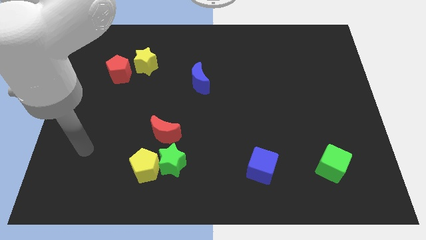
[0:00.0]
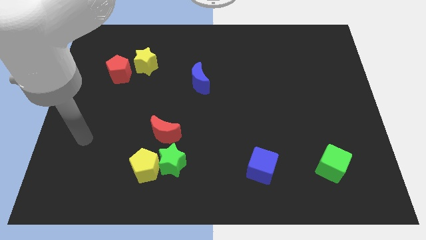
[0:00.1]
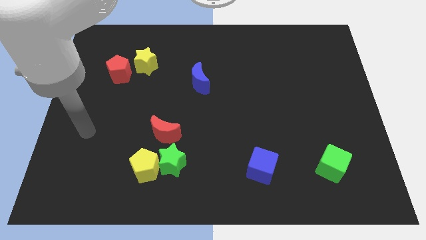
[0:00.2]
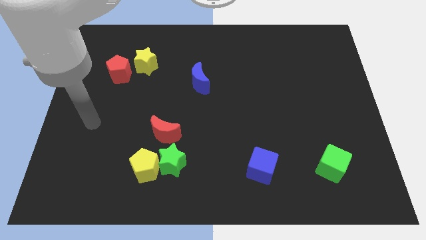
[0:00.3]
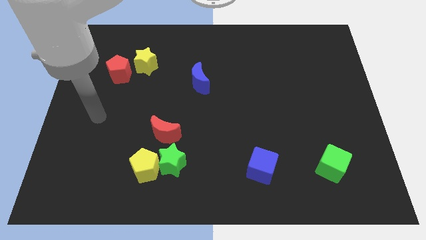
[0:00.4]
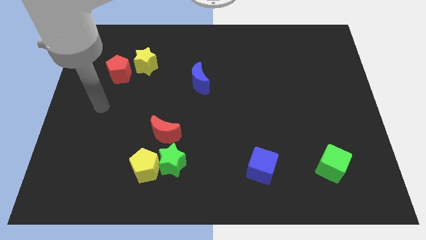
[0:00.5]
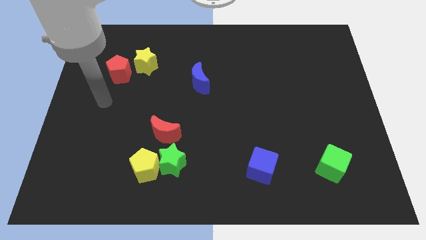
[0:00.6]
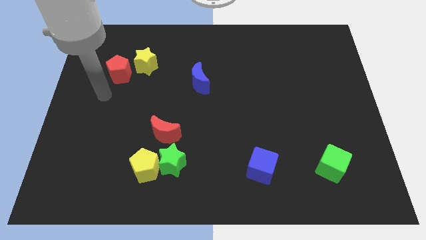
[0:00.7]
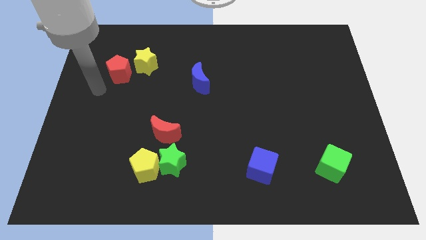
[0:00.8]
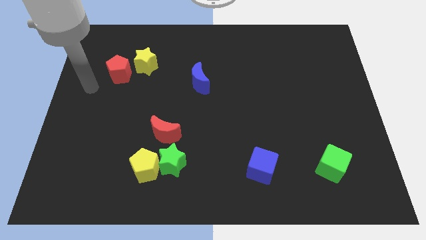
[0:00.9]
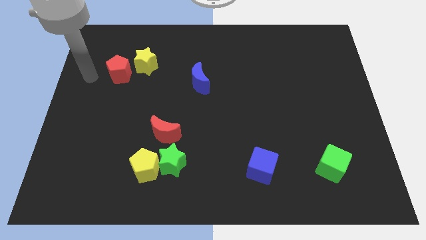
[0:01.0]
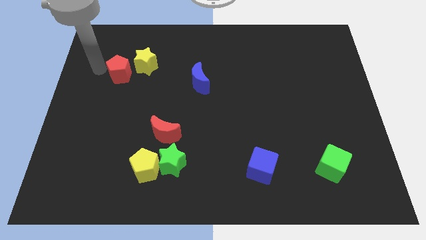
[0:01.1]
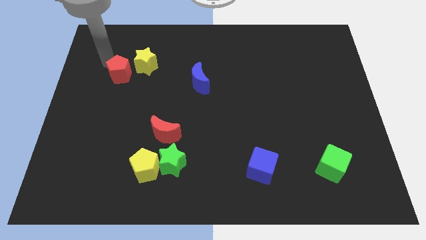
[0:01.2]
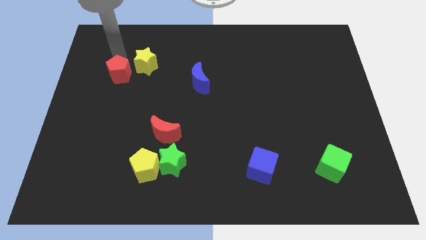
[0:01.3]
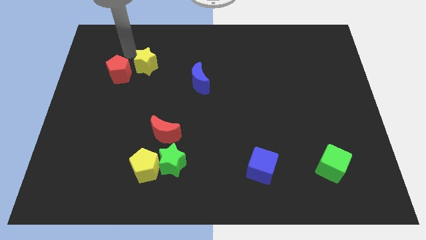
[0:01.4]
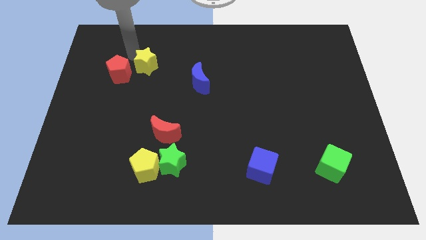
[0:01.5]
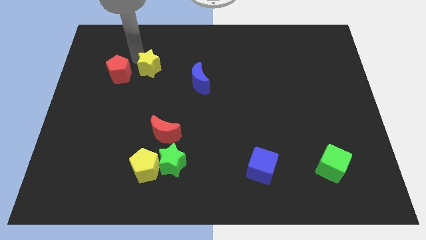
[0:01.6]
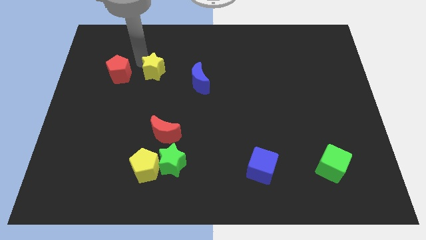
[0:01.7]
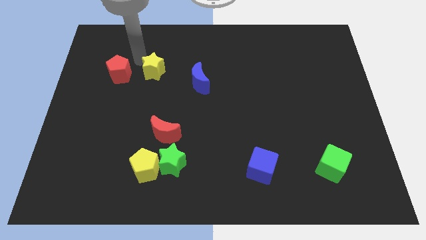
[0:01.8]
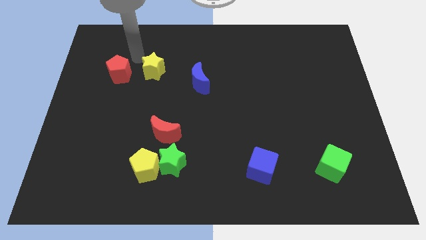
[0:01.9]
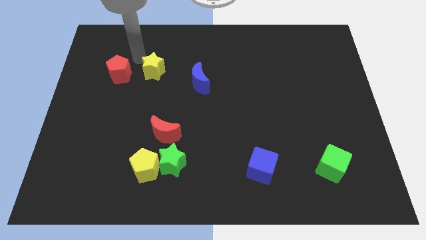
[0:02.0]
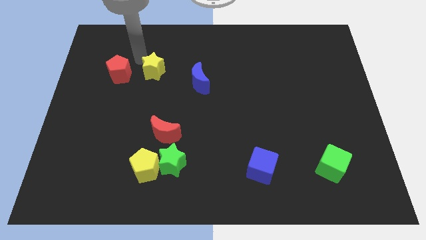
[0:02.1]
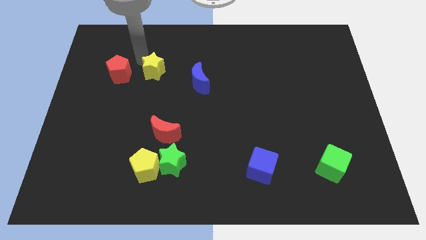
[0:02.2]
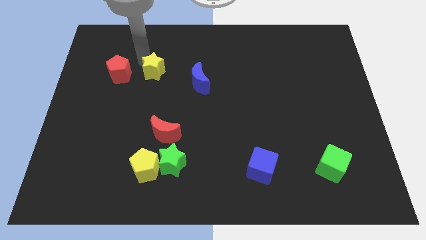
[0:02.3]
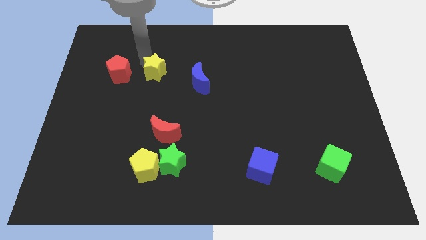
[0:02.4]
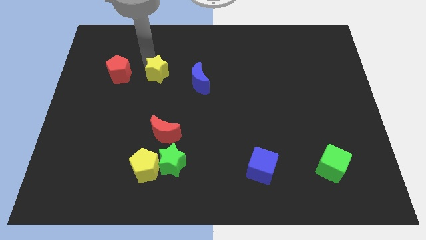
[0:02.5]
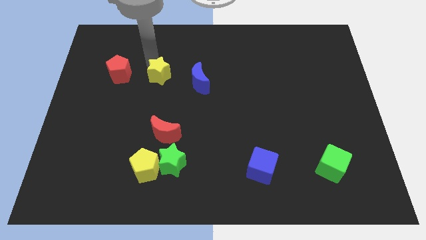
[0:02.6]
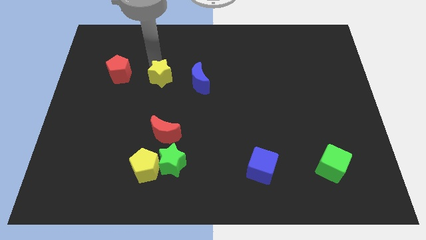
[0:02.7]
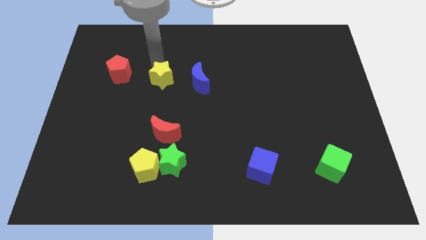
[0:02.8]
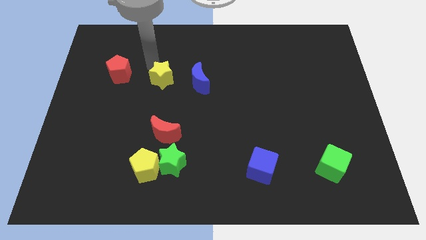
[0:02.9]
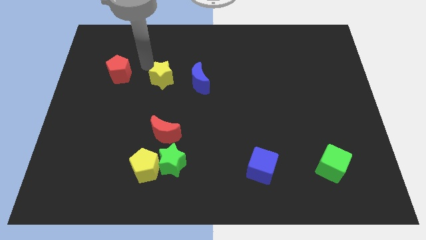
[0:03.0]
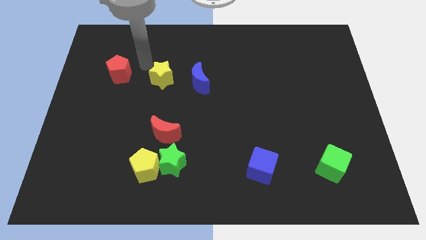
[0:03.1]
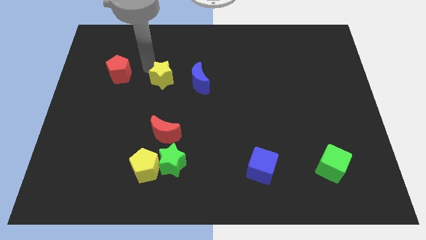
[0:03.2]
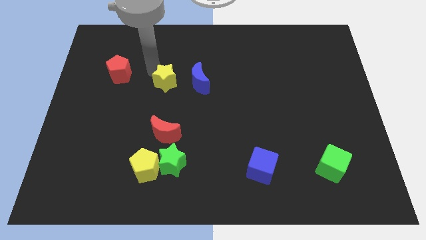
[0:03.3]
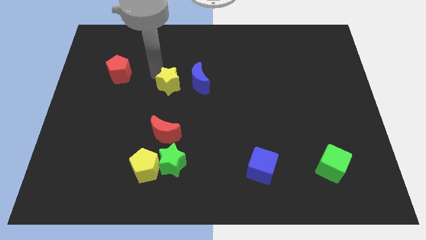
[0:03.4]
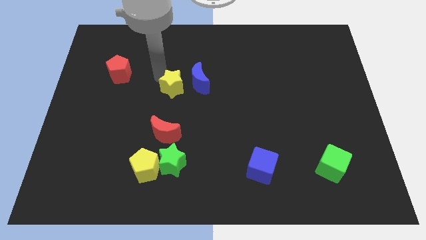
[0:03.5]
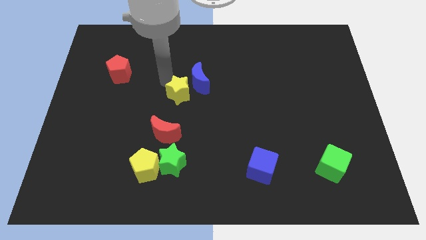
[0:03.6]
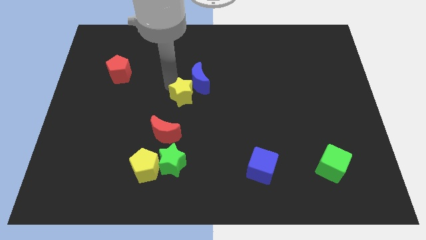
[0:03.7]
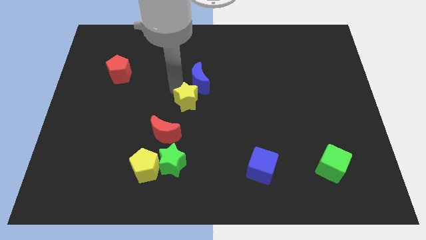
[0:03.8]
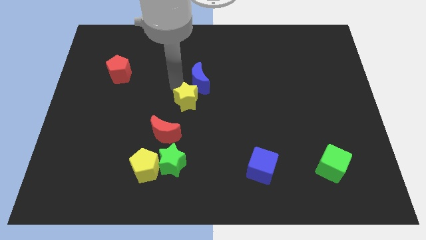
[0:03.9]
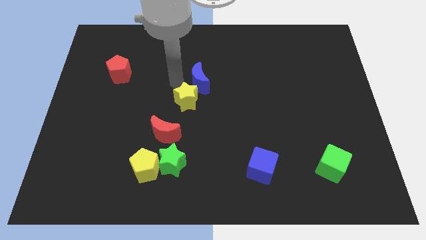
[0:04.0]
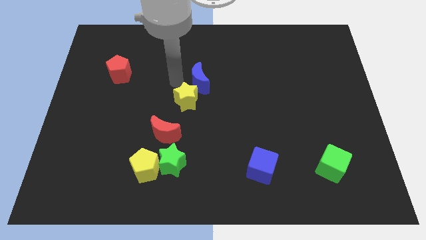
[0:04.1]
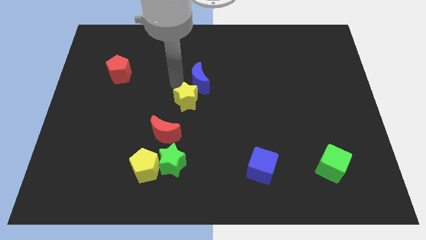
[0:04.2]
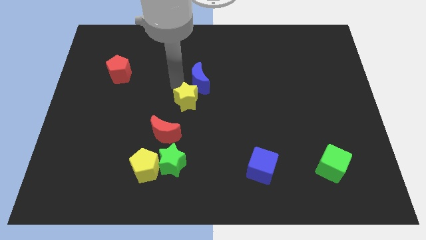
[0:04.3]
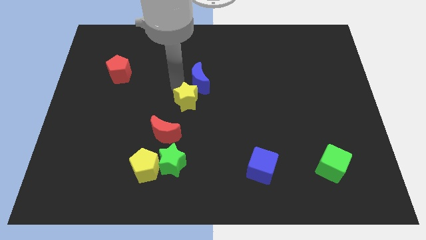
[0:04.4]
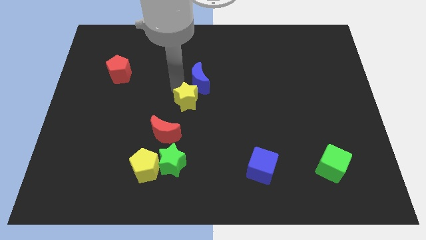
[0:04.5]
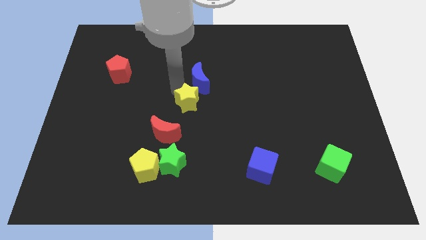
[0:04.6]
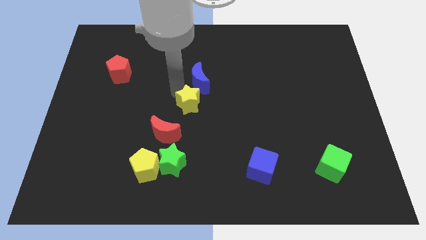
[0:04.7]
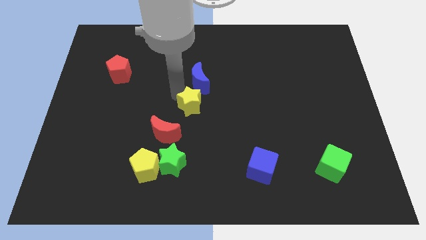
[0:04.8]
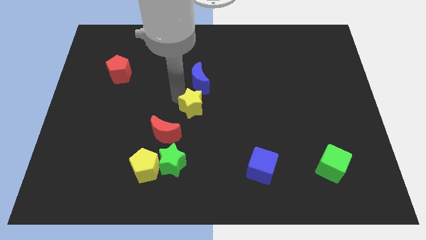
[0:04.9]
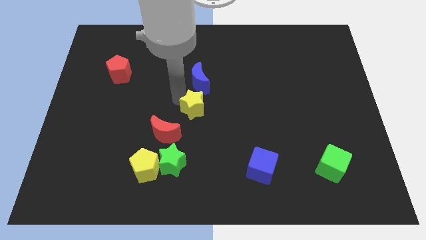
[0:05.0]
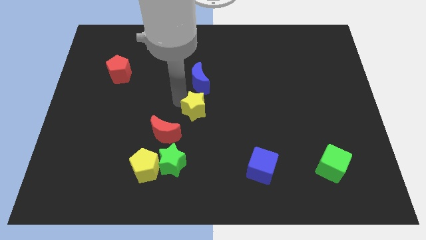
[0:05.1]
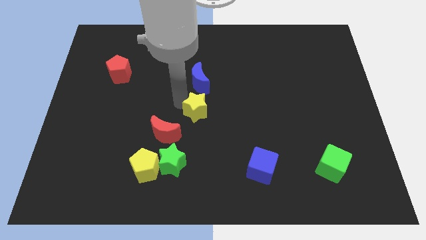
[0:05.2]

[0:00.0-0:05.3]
push the yellow star downwards and right diagonally

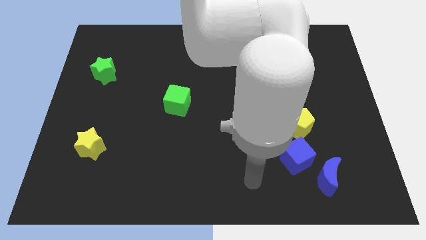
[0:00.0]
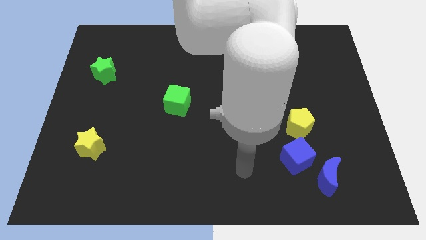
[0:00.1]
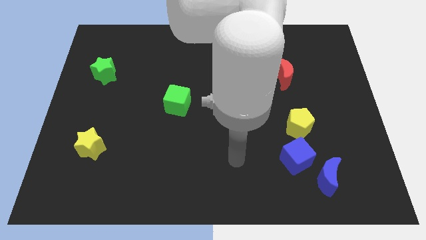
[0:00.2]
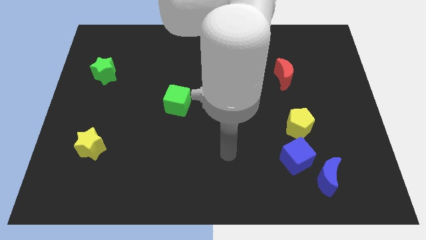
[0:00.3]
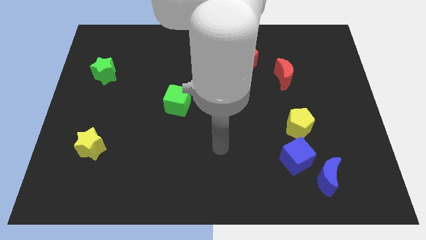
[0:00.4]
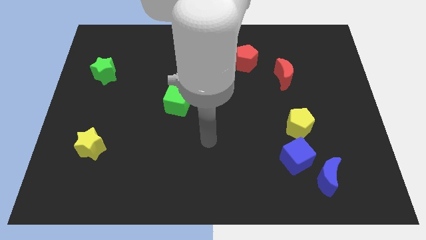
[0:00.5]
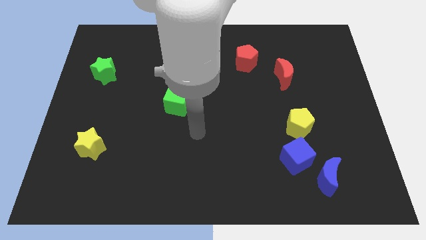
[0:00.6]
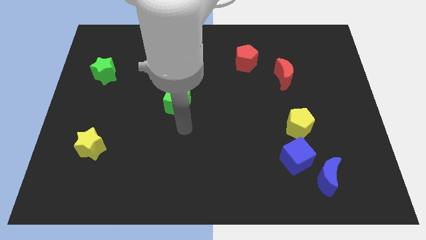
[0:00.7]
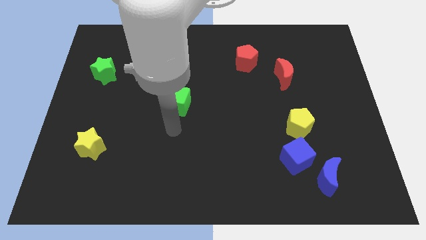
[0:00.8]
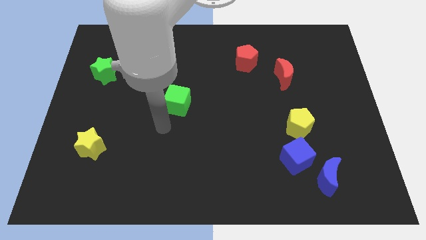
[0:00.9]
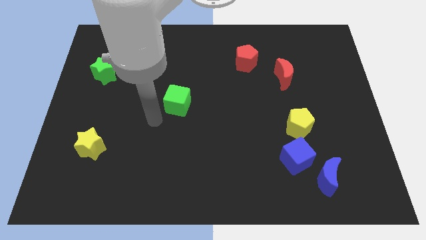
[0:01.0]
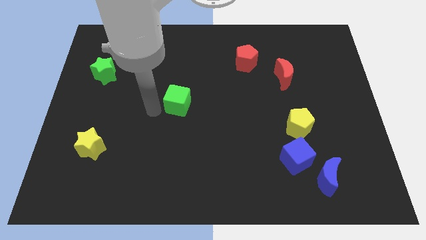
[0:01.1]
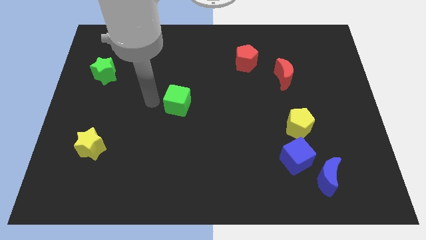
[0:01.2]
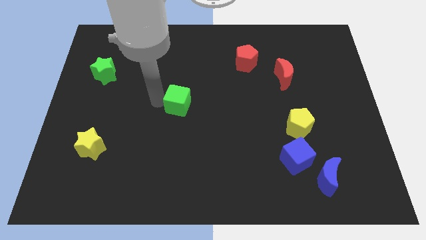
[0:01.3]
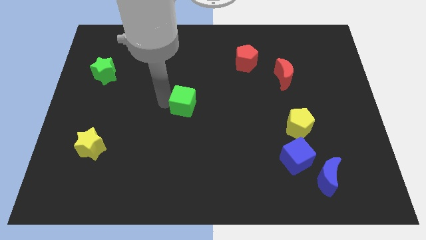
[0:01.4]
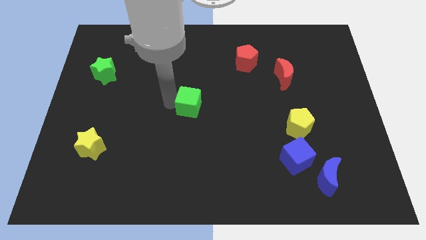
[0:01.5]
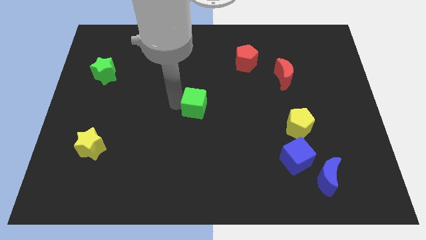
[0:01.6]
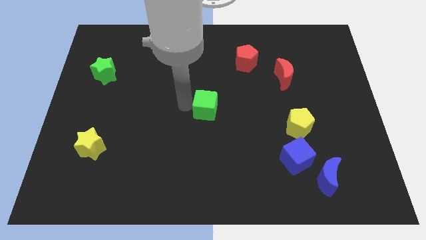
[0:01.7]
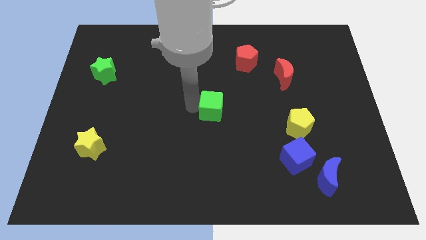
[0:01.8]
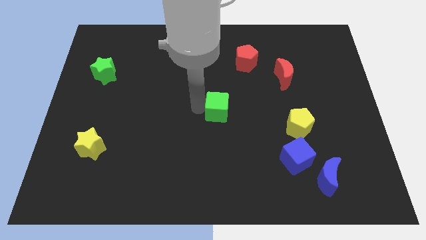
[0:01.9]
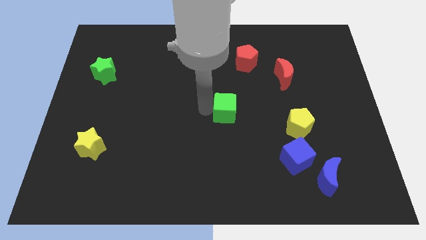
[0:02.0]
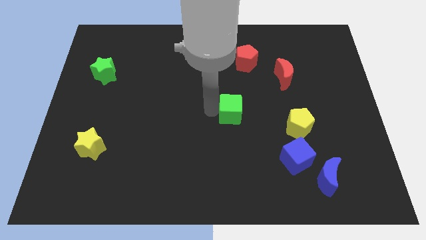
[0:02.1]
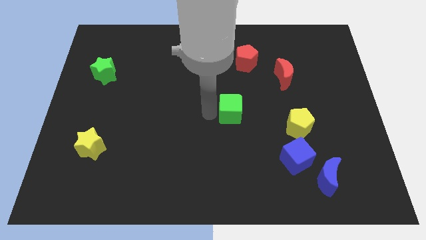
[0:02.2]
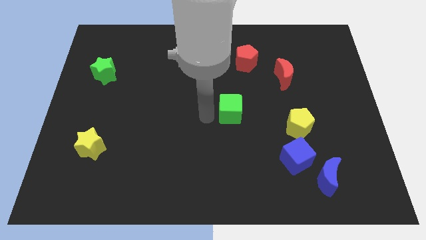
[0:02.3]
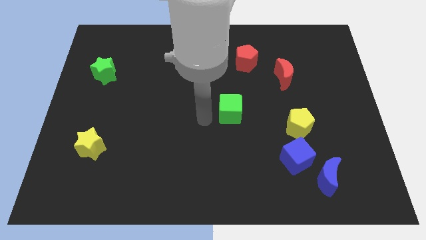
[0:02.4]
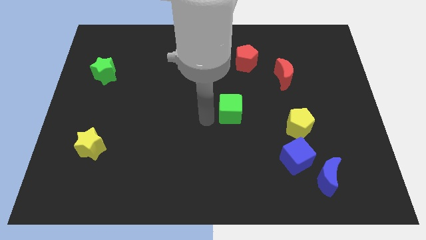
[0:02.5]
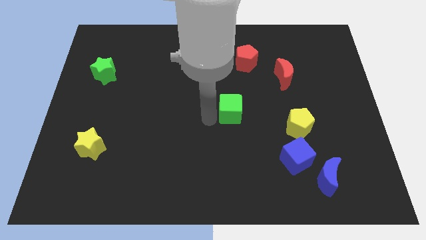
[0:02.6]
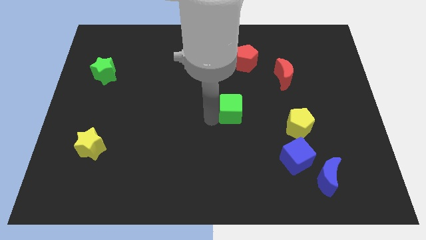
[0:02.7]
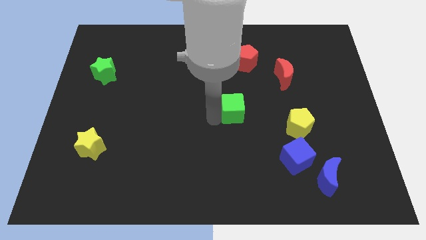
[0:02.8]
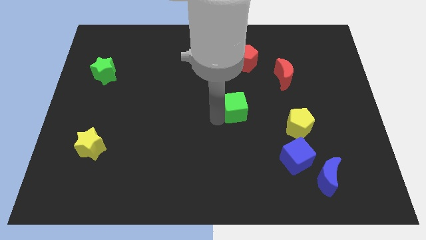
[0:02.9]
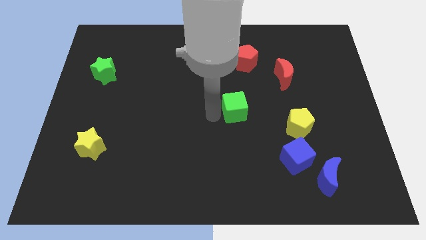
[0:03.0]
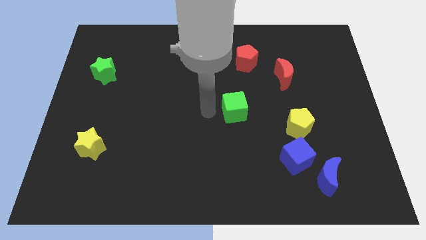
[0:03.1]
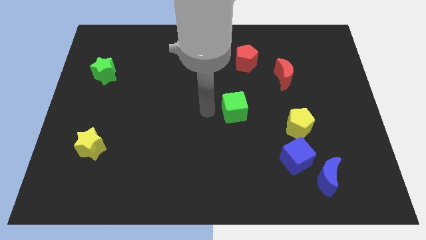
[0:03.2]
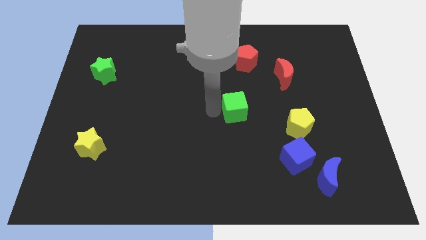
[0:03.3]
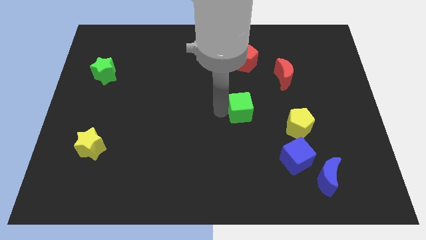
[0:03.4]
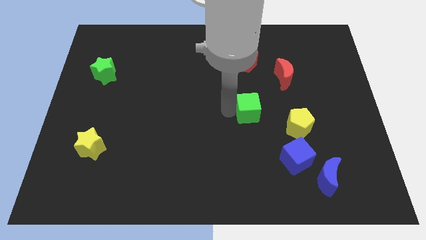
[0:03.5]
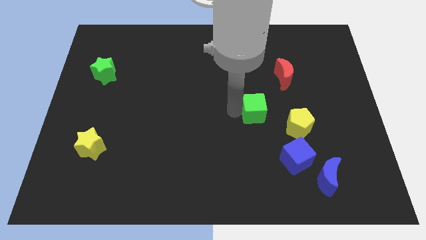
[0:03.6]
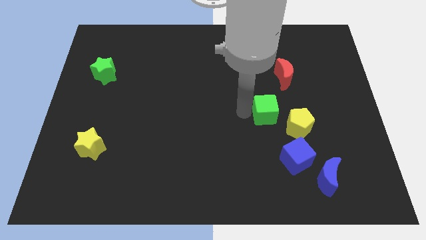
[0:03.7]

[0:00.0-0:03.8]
move the green cube right
